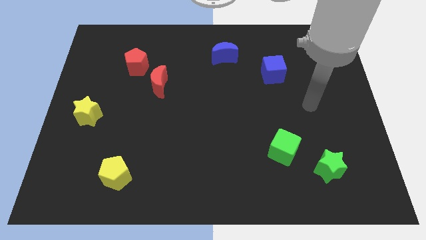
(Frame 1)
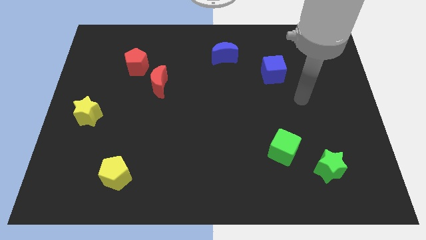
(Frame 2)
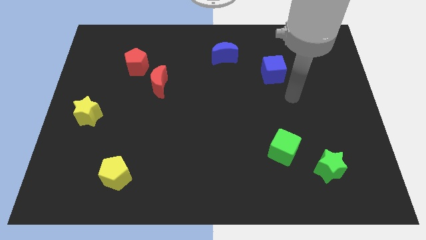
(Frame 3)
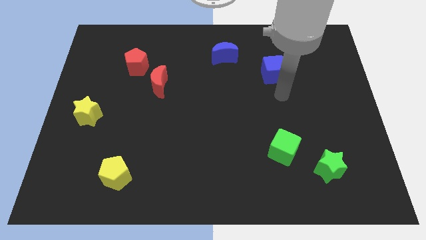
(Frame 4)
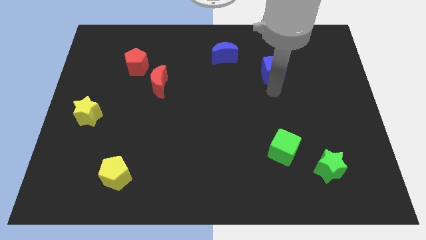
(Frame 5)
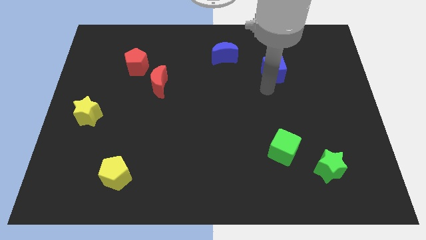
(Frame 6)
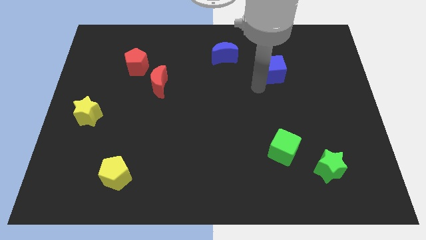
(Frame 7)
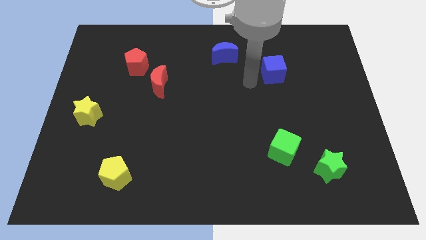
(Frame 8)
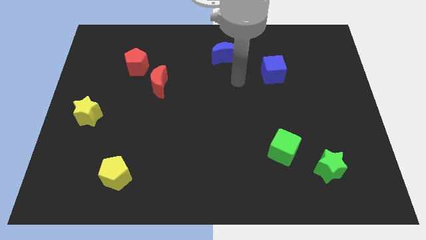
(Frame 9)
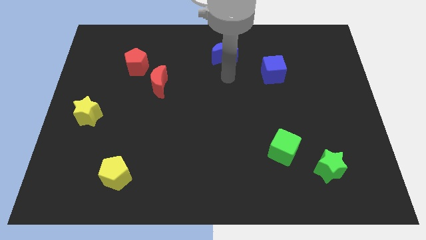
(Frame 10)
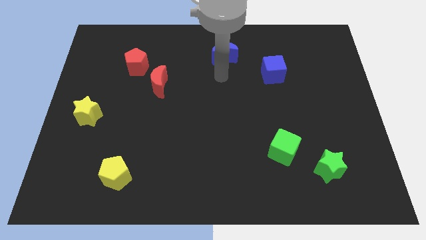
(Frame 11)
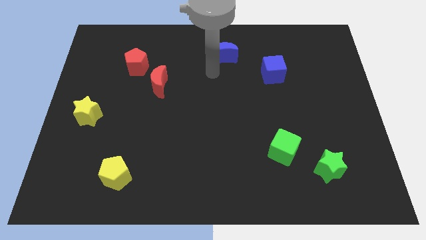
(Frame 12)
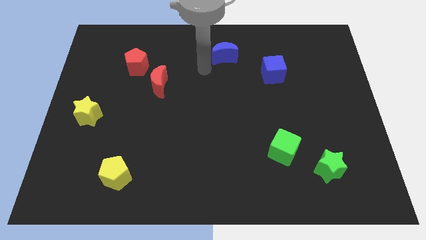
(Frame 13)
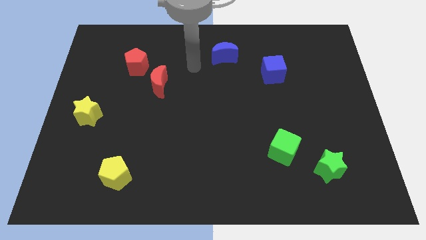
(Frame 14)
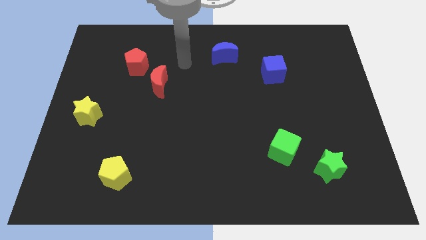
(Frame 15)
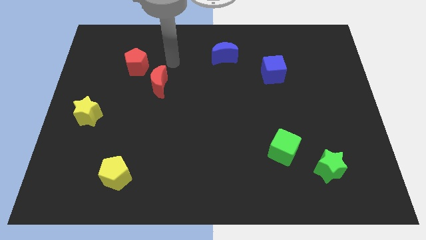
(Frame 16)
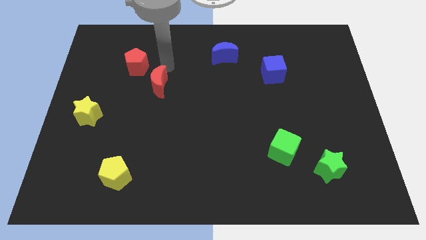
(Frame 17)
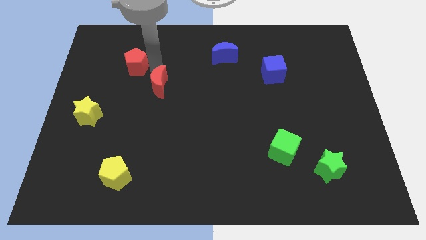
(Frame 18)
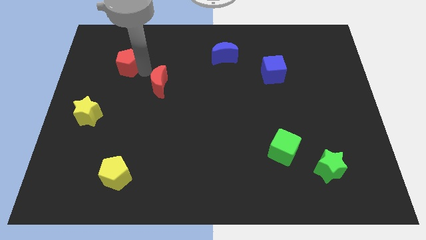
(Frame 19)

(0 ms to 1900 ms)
separate the red moon from the red pentagon

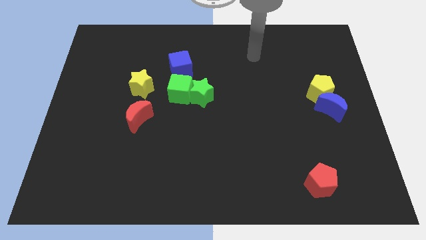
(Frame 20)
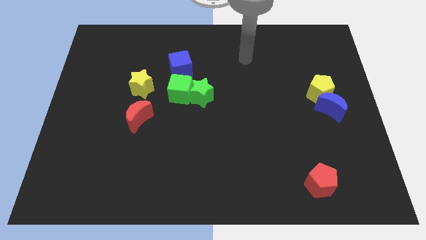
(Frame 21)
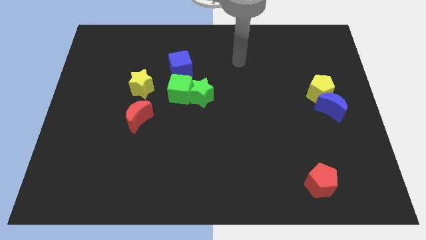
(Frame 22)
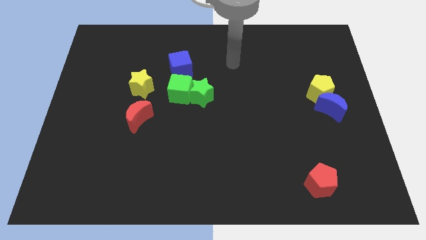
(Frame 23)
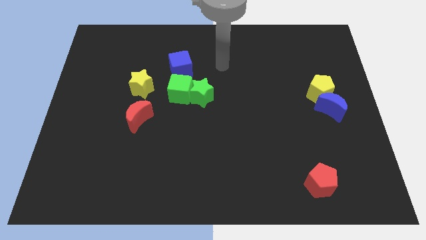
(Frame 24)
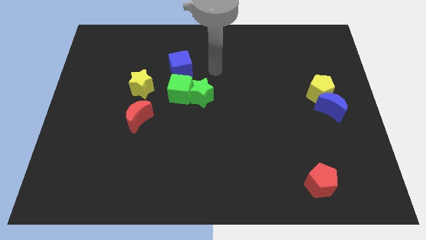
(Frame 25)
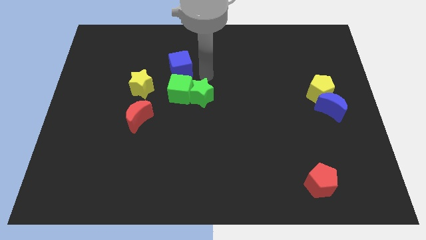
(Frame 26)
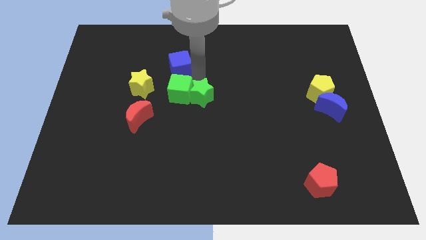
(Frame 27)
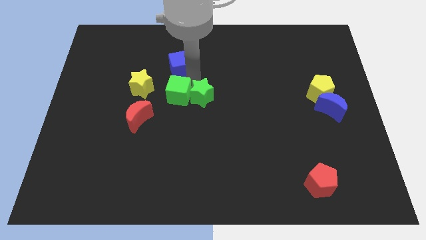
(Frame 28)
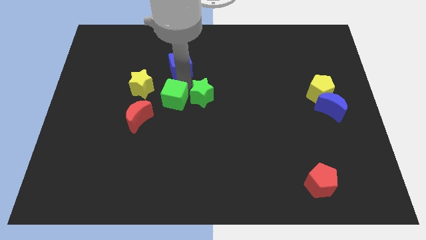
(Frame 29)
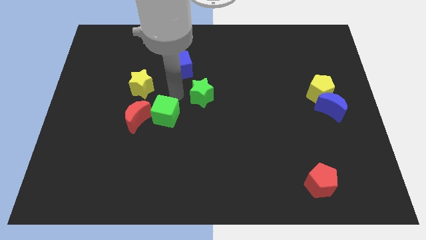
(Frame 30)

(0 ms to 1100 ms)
move the green star away from the green cube

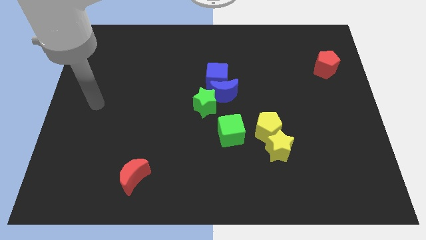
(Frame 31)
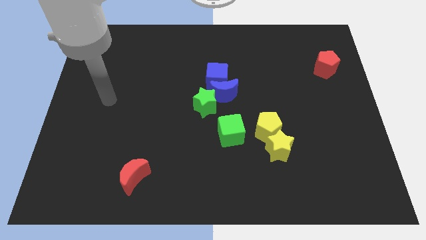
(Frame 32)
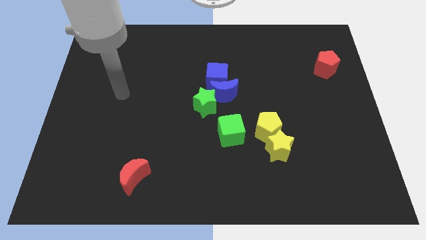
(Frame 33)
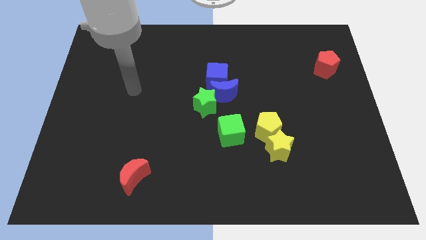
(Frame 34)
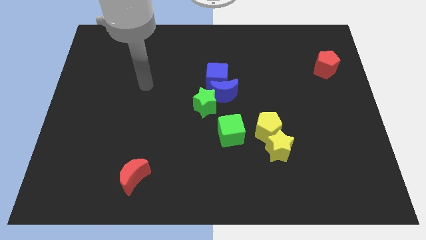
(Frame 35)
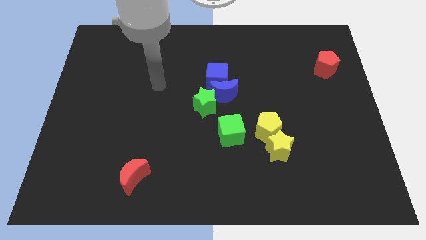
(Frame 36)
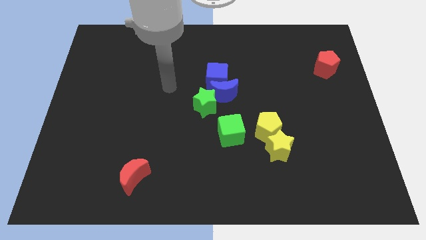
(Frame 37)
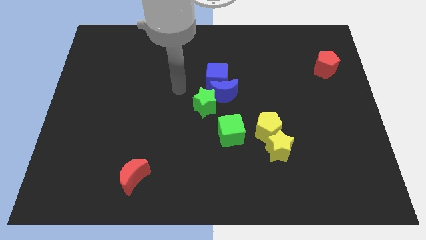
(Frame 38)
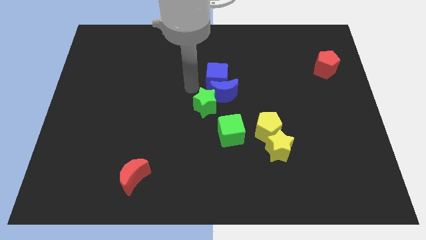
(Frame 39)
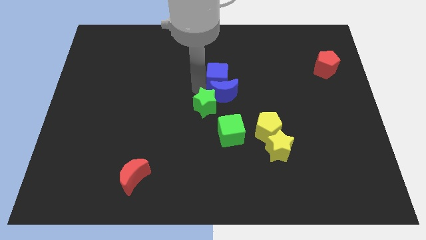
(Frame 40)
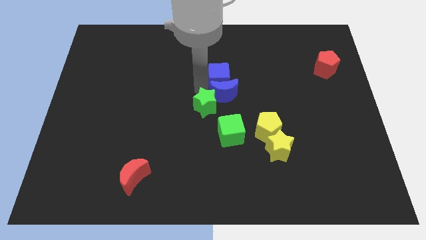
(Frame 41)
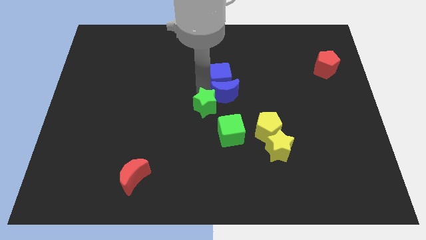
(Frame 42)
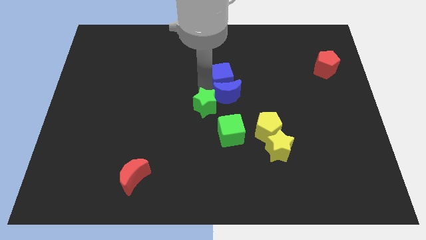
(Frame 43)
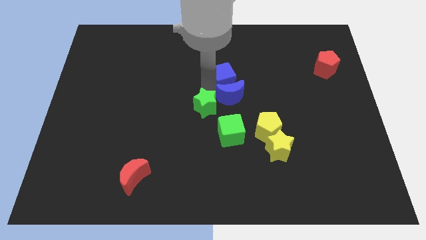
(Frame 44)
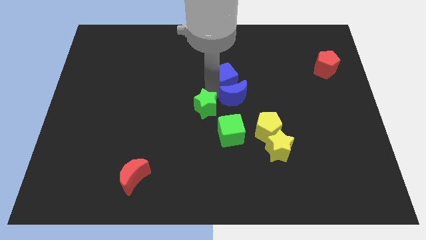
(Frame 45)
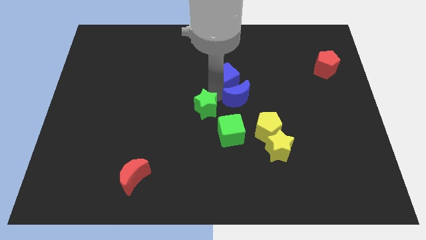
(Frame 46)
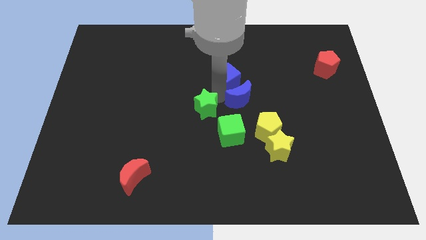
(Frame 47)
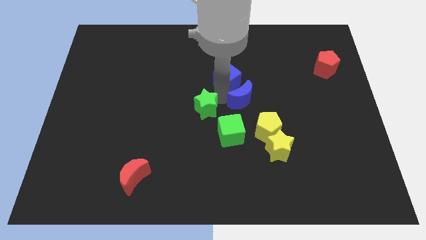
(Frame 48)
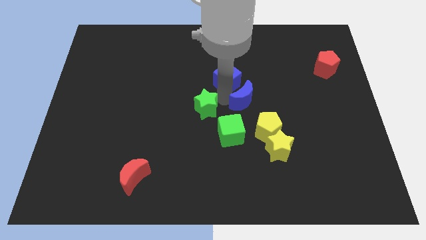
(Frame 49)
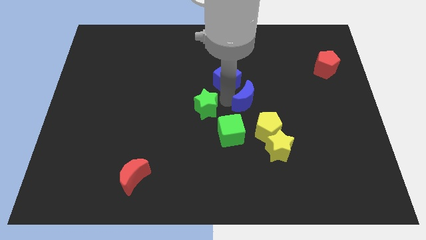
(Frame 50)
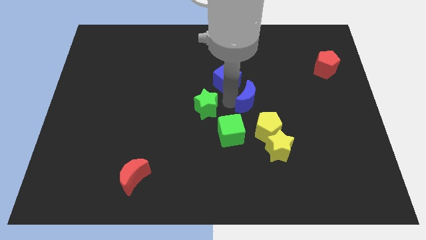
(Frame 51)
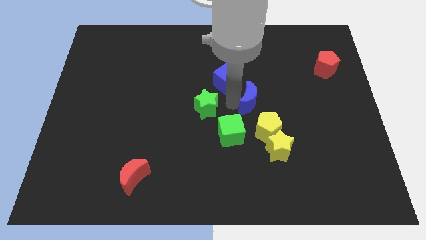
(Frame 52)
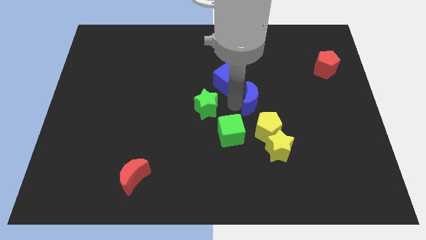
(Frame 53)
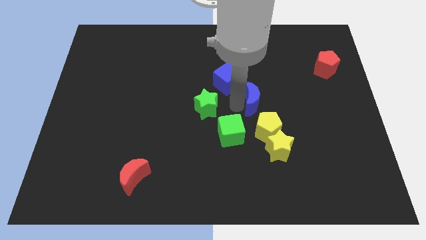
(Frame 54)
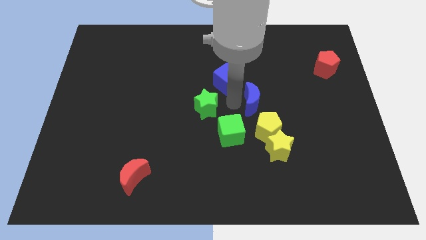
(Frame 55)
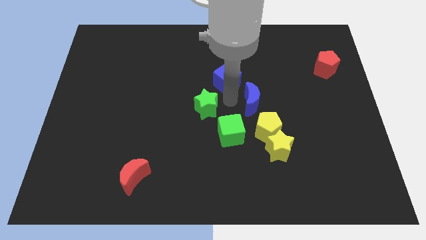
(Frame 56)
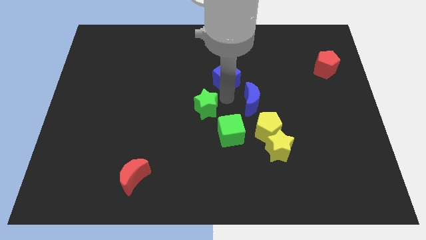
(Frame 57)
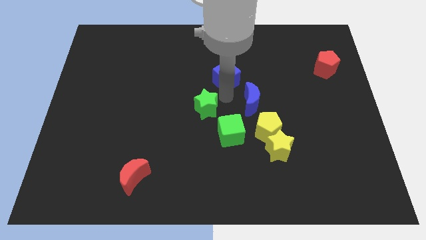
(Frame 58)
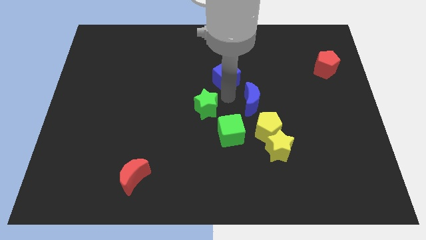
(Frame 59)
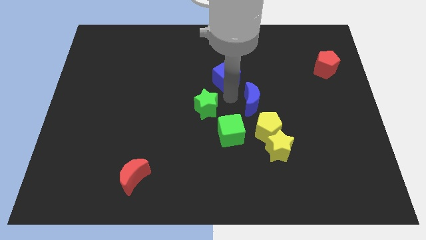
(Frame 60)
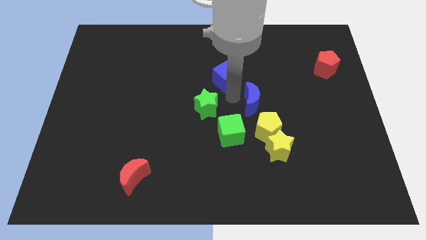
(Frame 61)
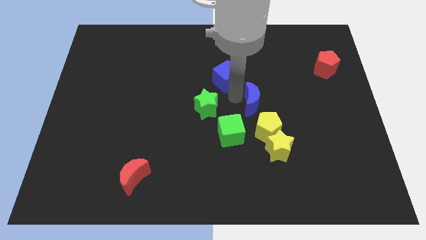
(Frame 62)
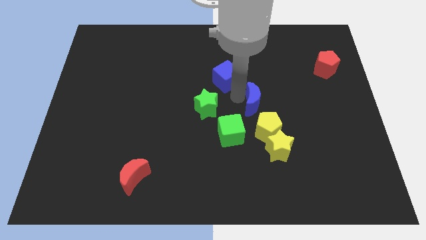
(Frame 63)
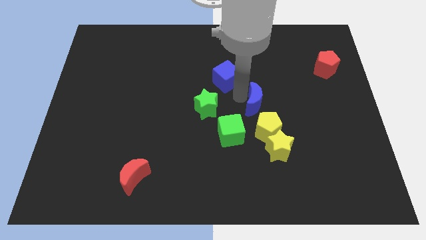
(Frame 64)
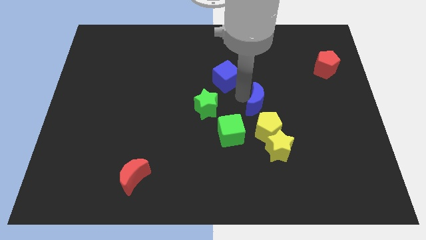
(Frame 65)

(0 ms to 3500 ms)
move the blue moon away from the blue cube and green star

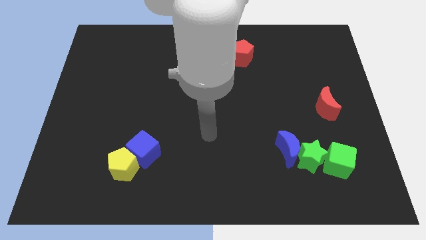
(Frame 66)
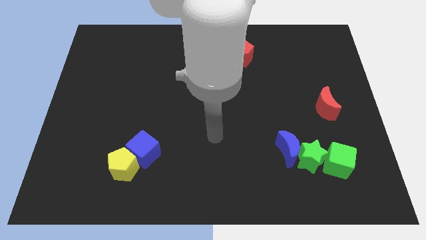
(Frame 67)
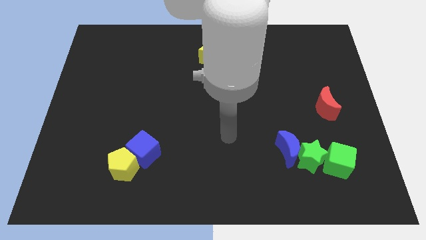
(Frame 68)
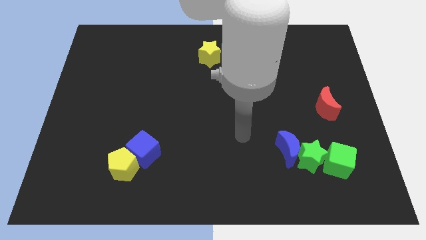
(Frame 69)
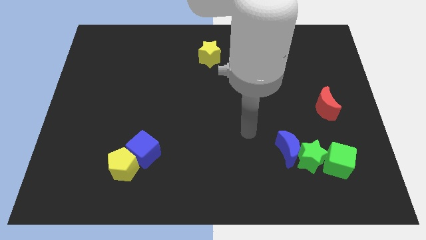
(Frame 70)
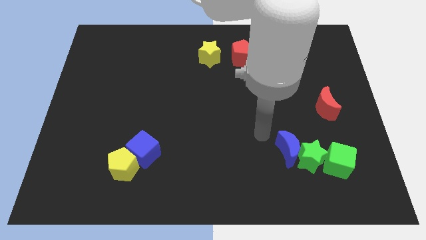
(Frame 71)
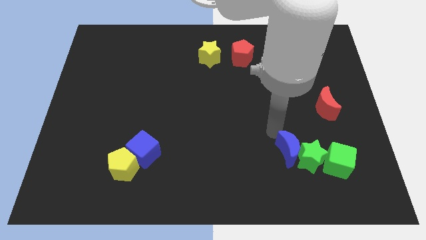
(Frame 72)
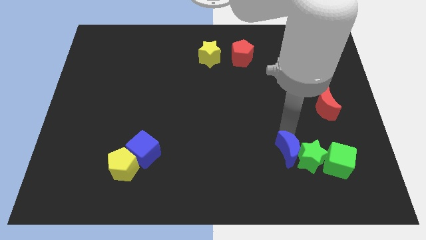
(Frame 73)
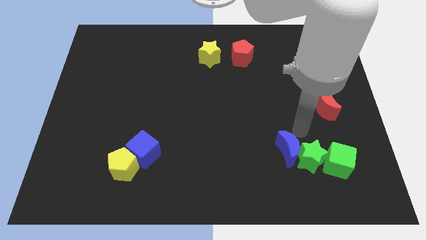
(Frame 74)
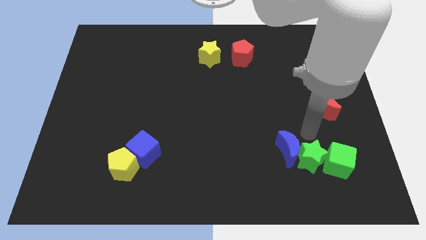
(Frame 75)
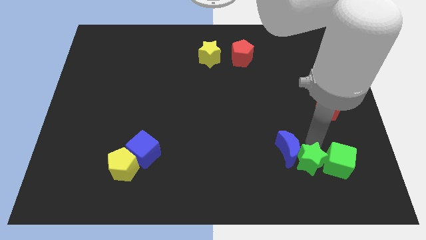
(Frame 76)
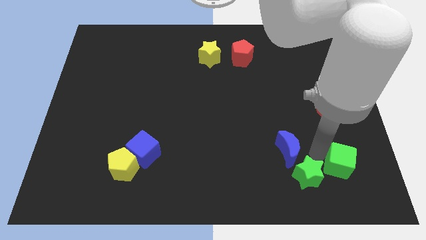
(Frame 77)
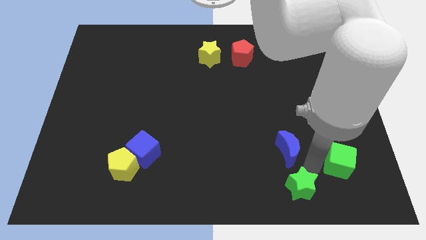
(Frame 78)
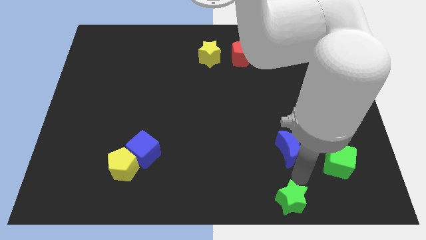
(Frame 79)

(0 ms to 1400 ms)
move the blue moon away from the green star

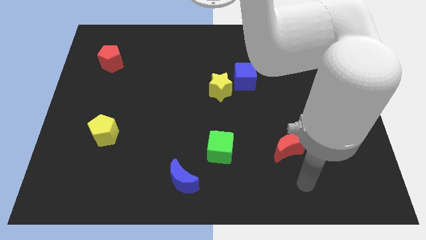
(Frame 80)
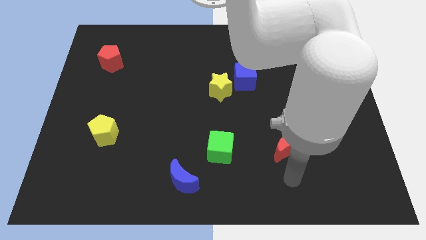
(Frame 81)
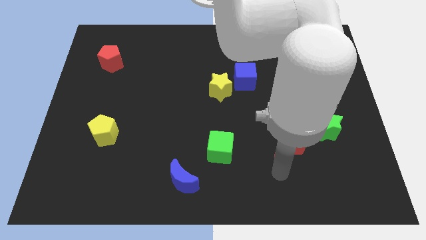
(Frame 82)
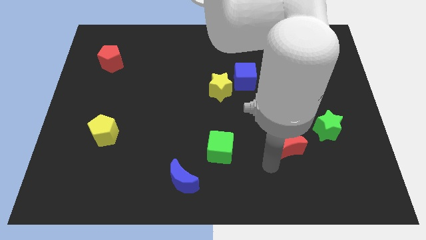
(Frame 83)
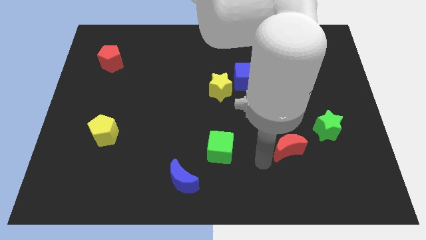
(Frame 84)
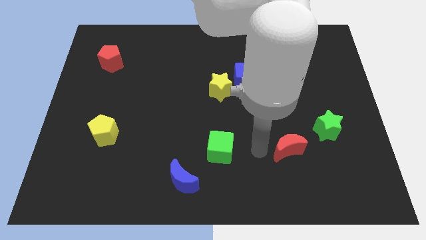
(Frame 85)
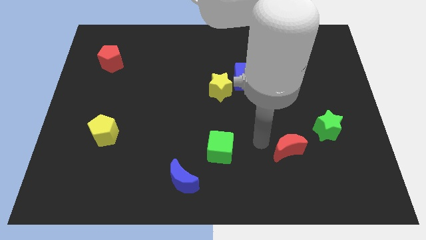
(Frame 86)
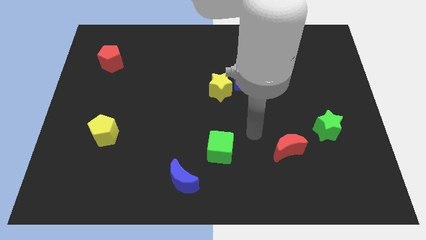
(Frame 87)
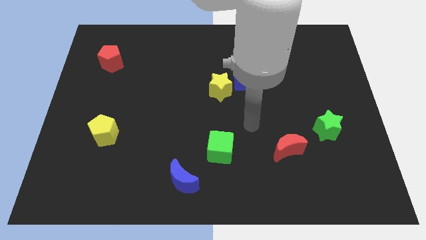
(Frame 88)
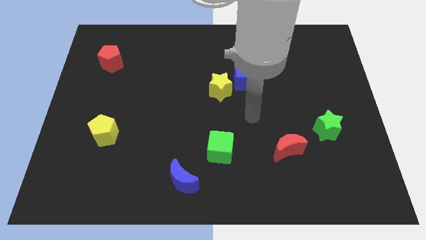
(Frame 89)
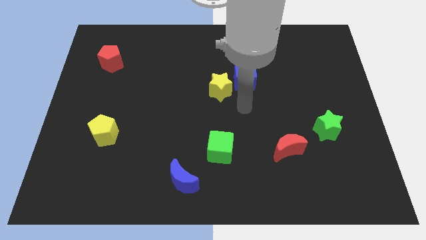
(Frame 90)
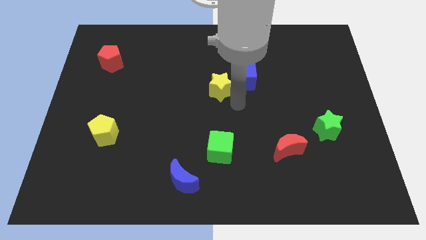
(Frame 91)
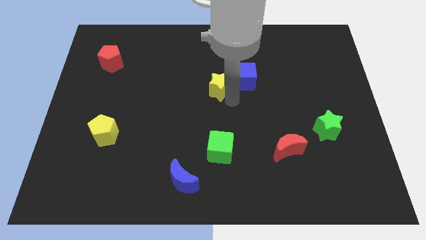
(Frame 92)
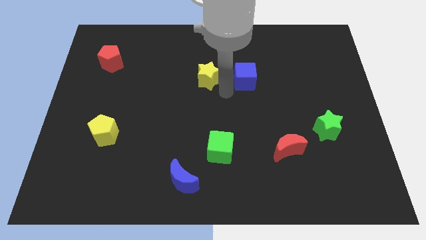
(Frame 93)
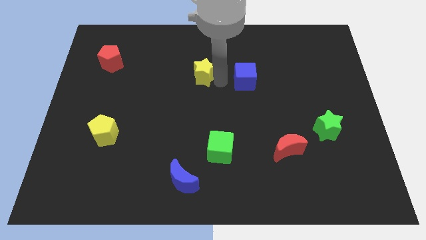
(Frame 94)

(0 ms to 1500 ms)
move the blue cube away from the yellow star

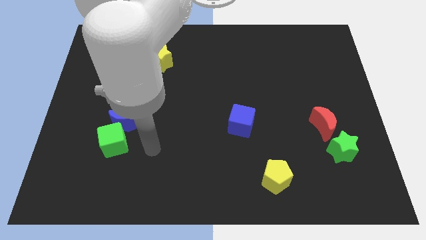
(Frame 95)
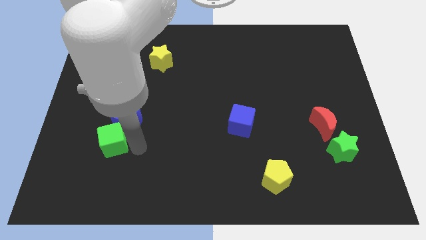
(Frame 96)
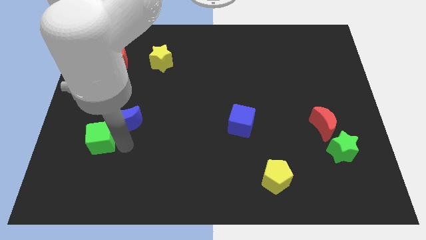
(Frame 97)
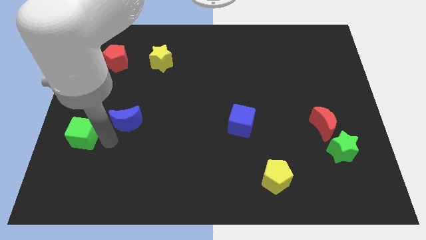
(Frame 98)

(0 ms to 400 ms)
move the blue moon away from the green cube
